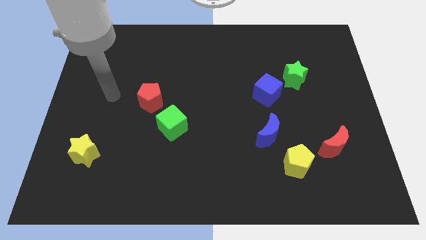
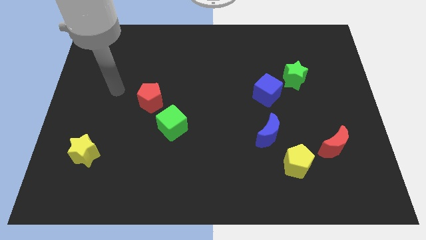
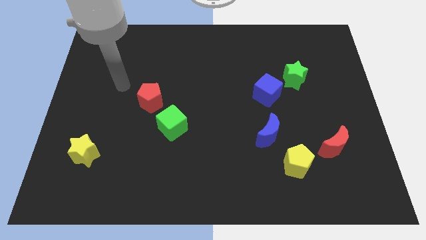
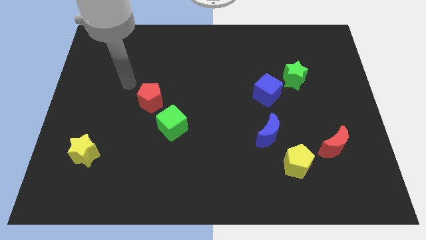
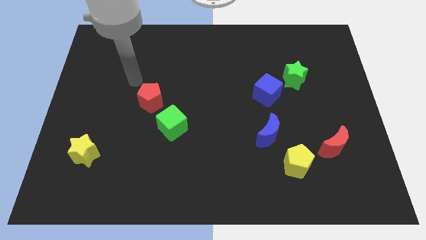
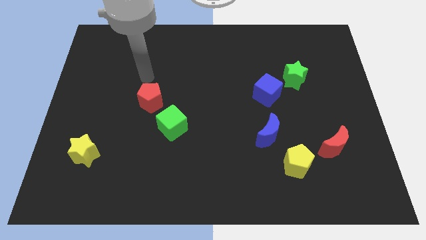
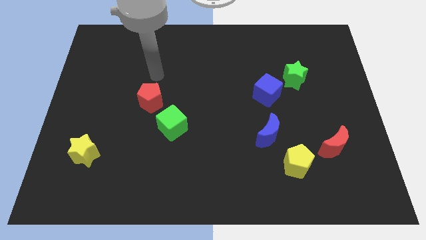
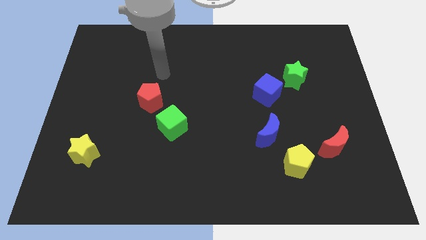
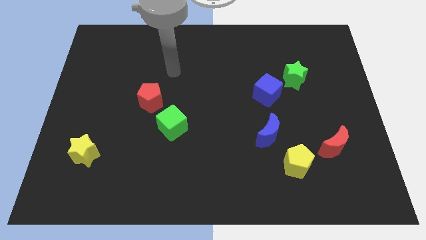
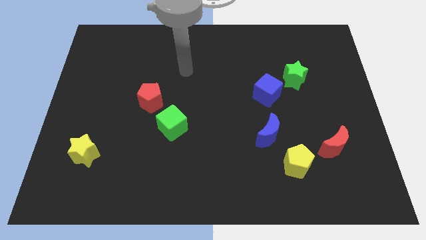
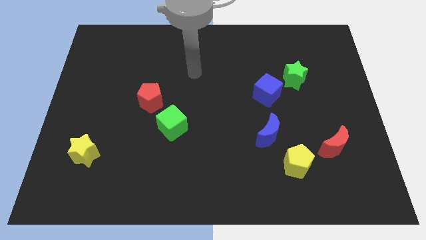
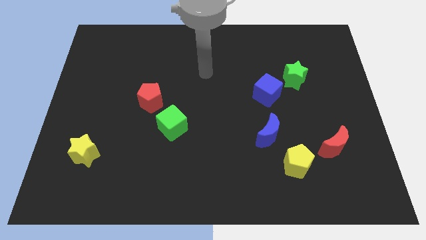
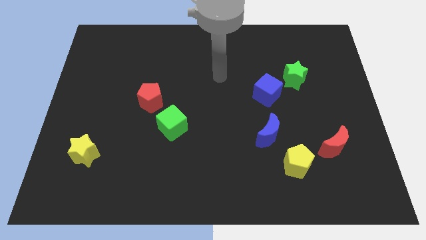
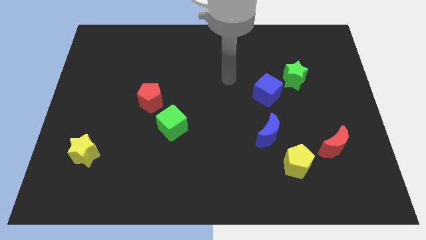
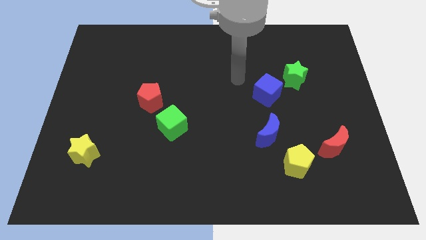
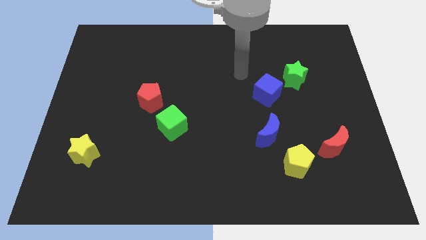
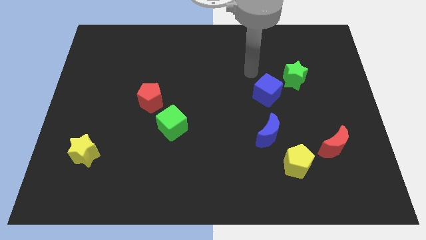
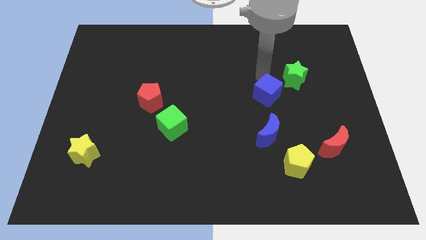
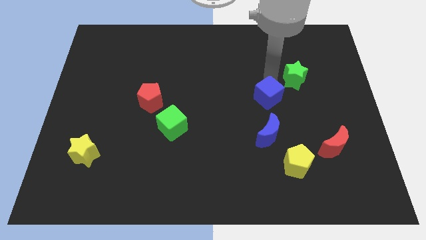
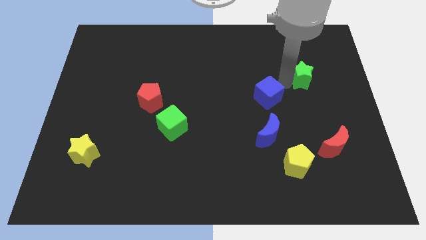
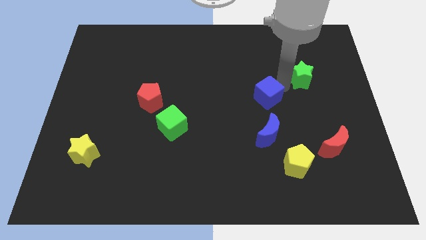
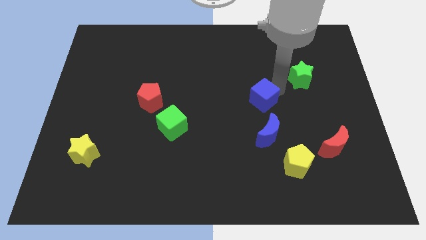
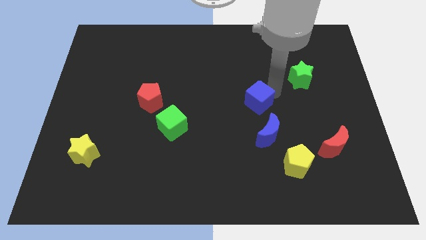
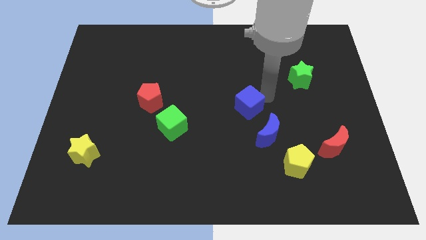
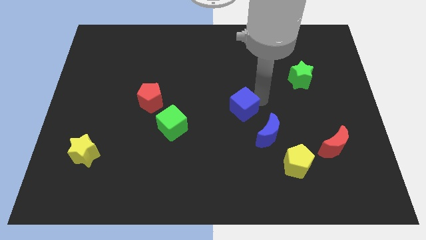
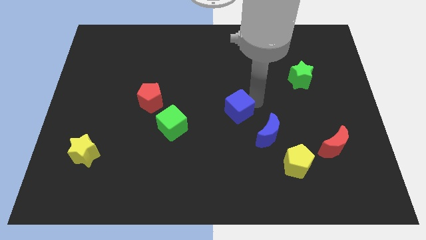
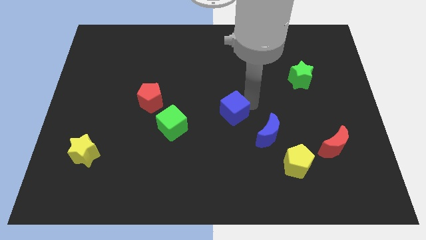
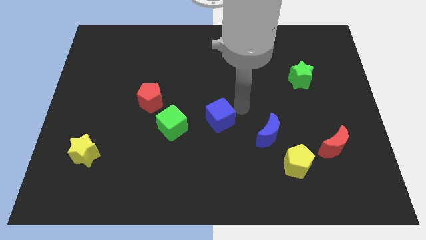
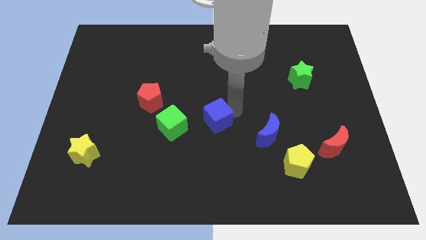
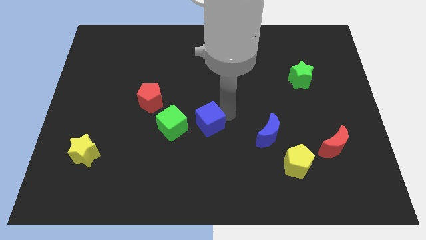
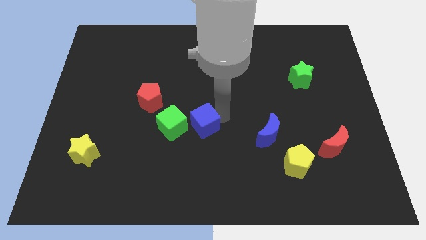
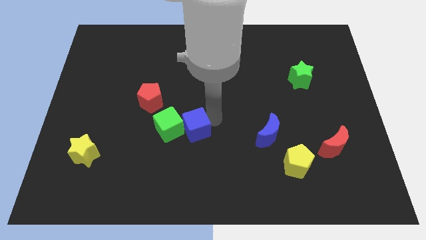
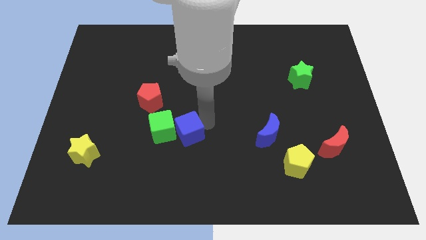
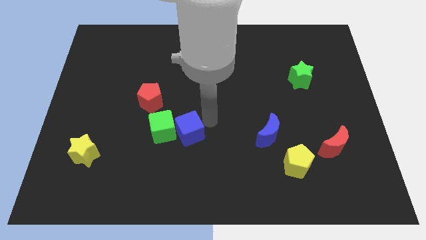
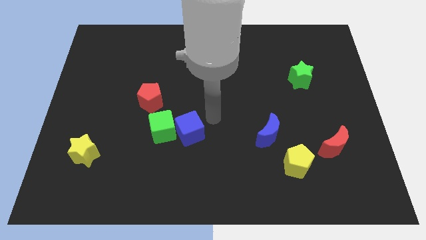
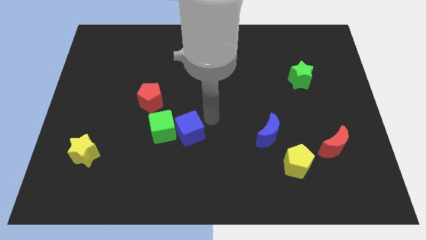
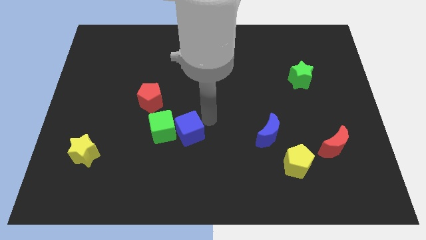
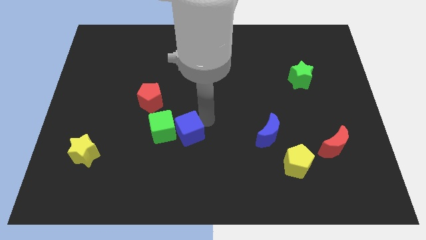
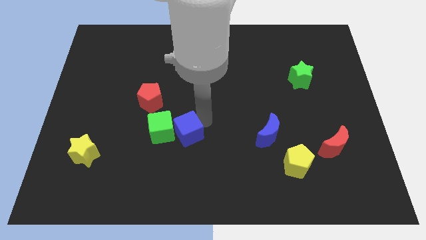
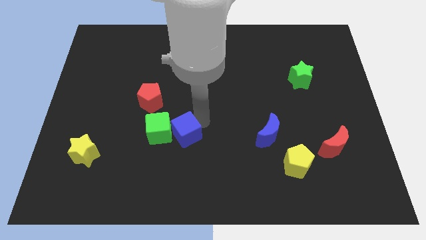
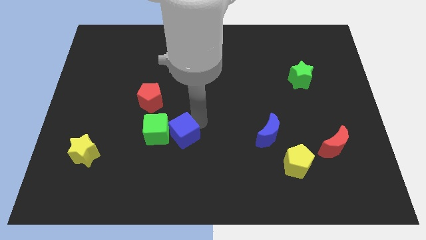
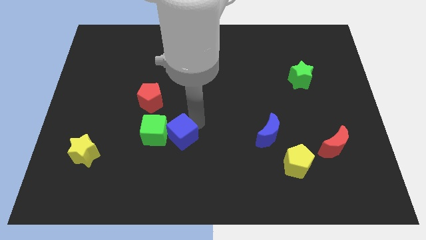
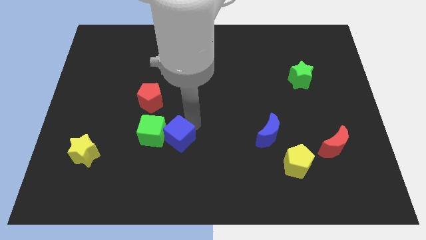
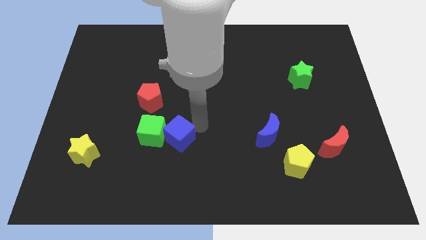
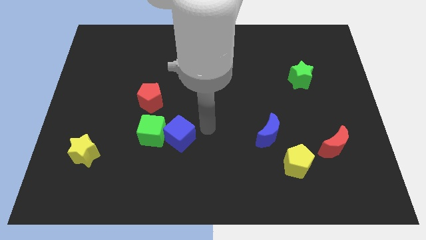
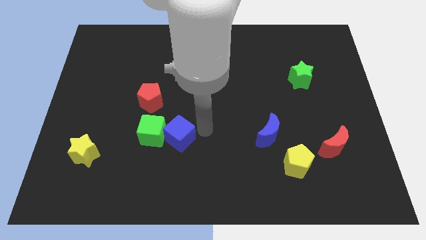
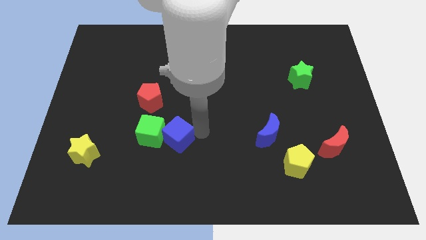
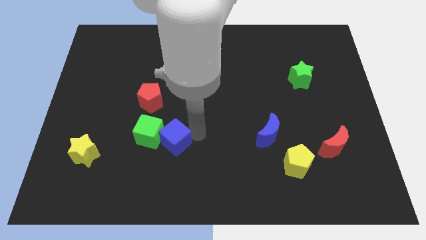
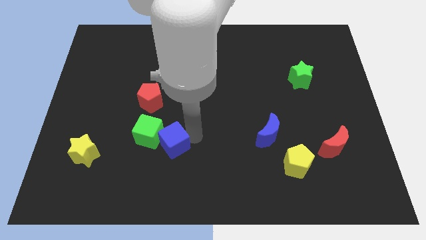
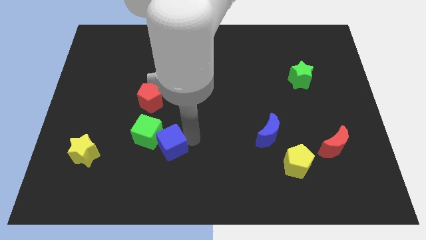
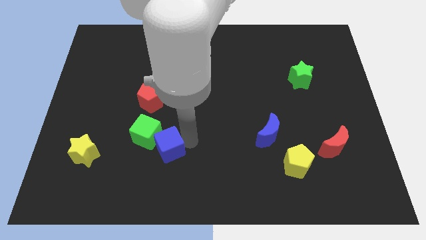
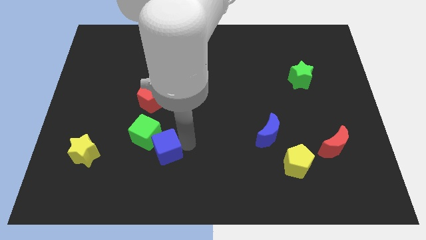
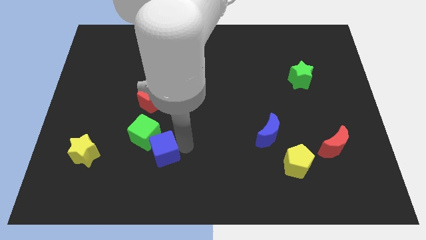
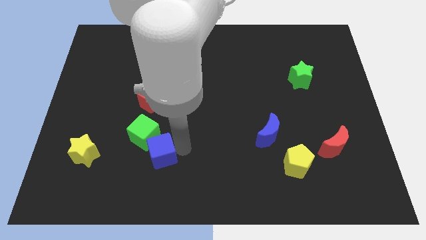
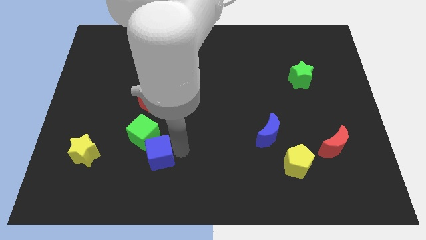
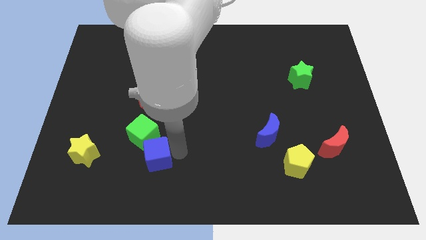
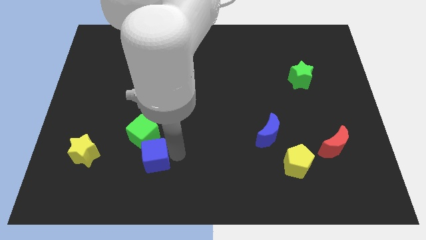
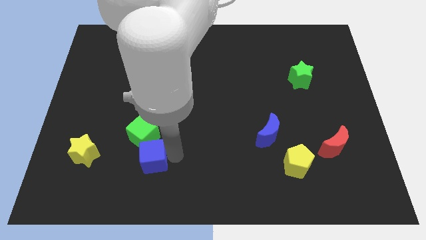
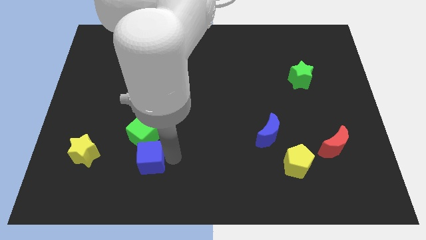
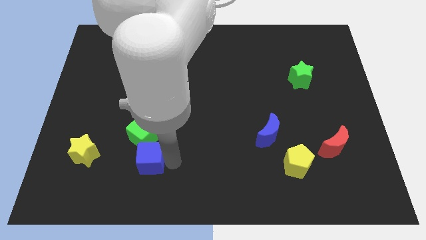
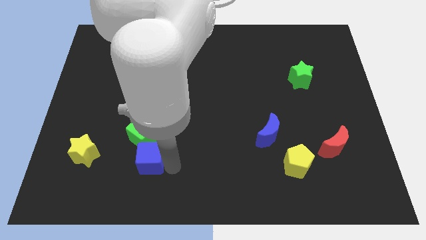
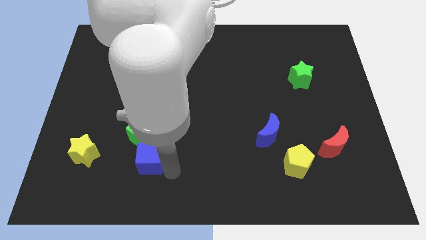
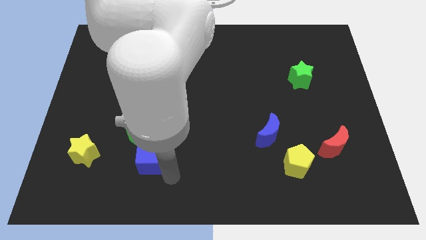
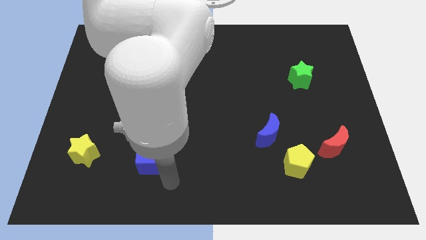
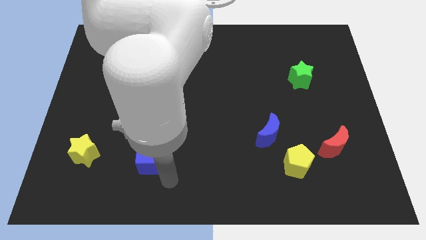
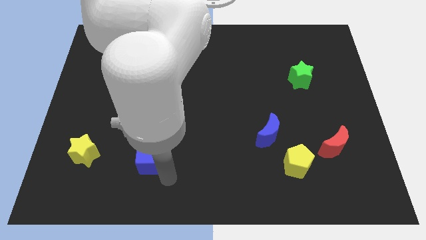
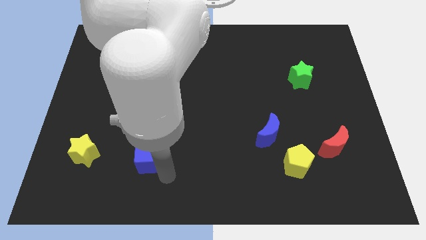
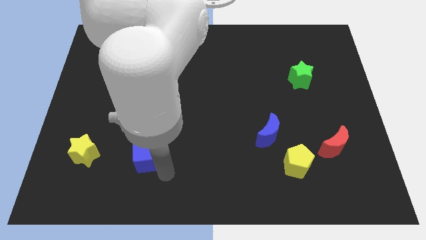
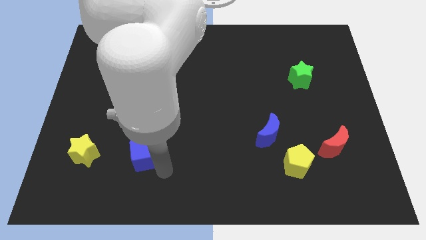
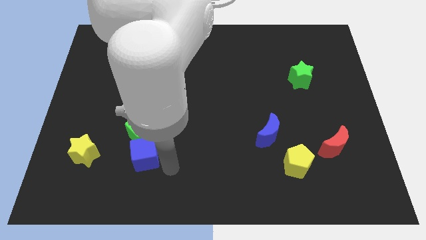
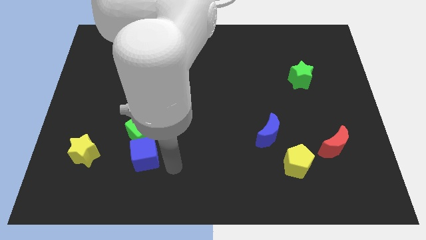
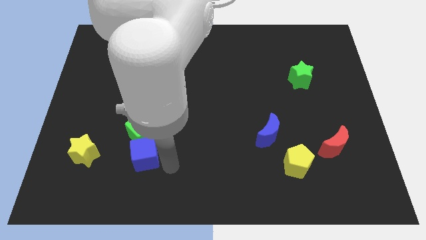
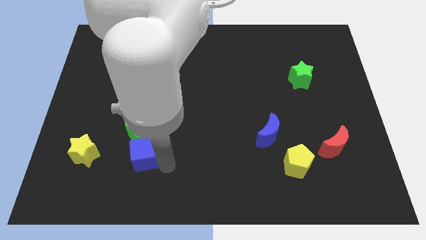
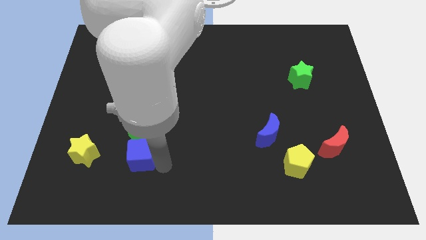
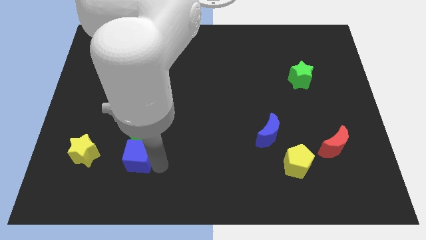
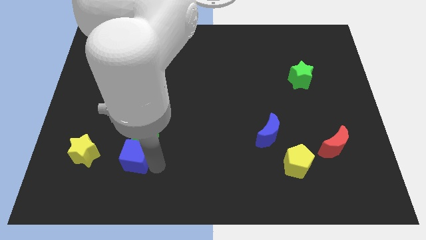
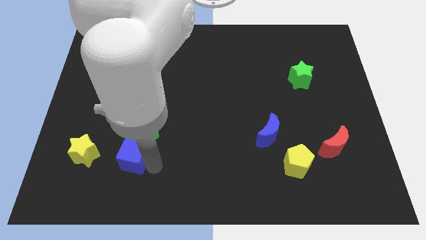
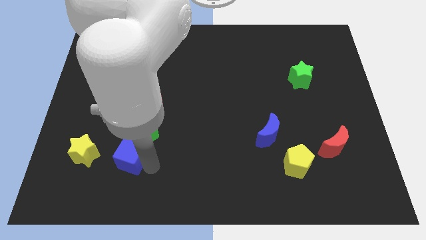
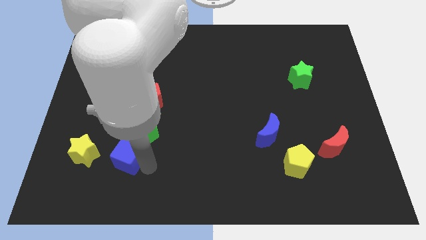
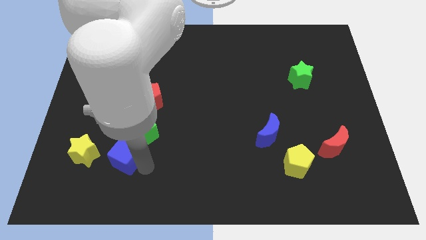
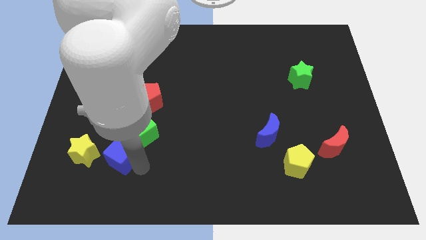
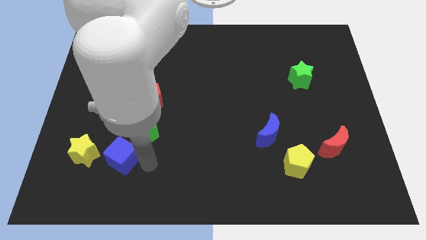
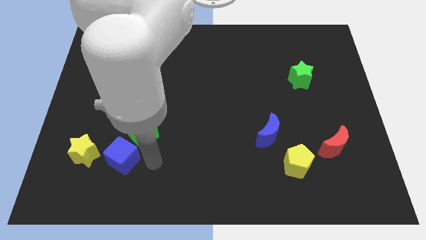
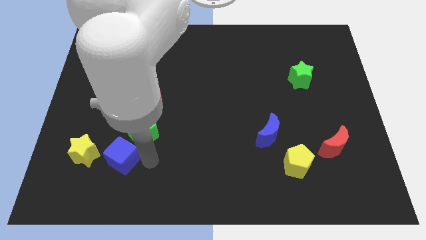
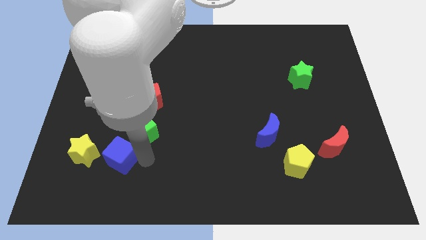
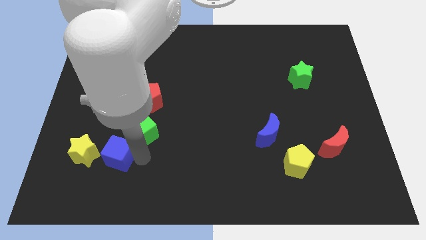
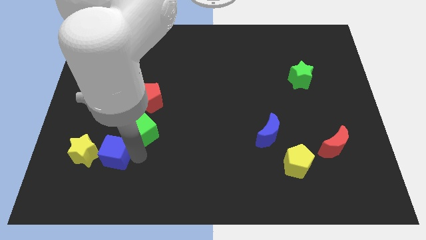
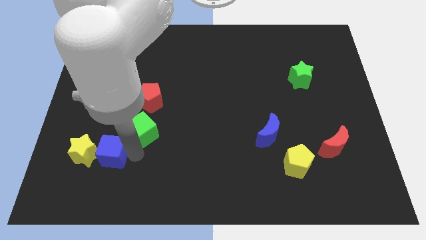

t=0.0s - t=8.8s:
push the blue cube close to the yellow star
